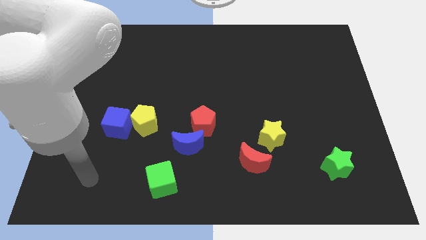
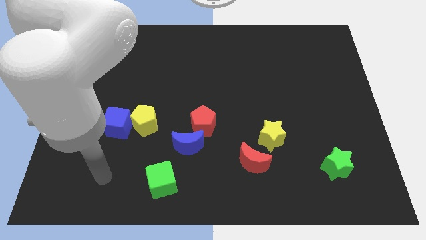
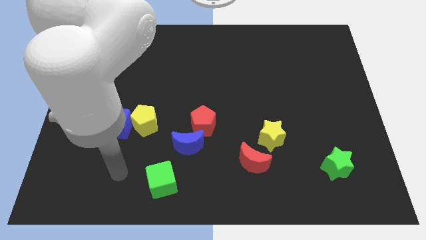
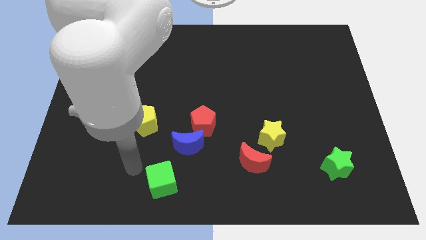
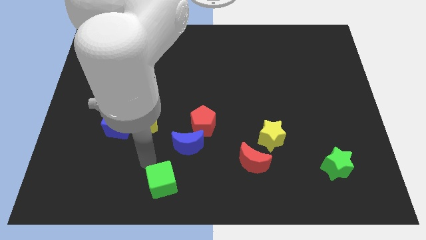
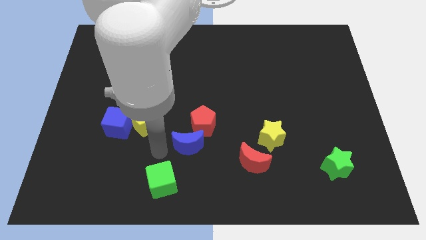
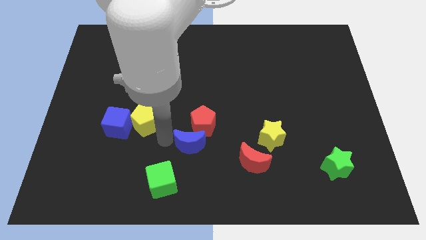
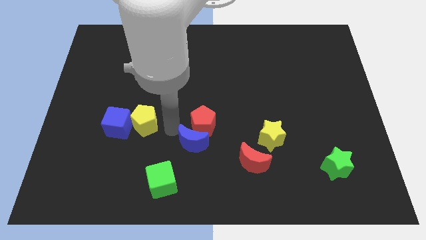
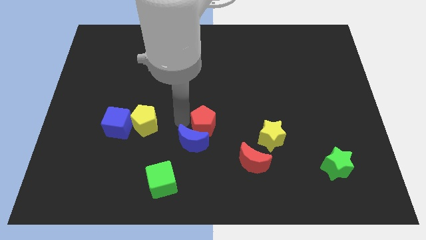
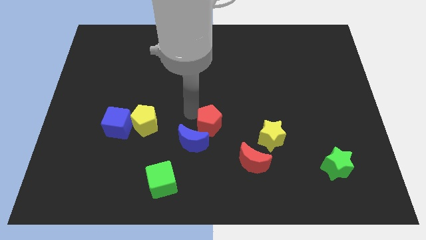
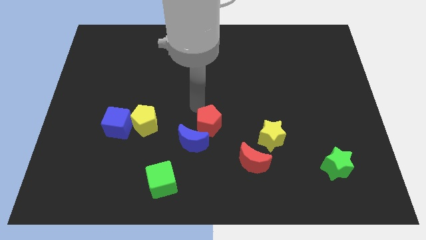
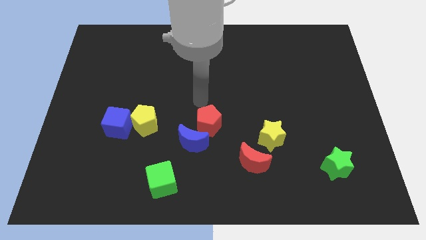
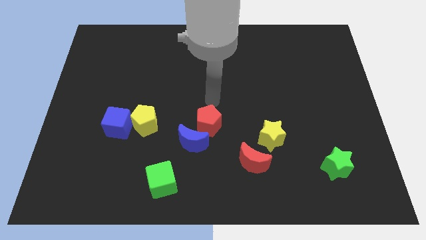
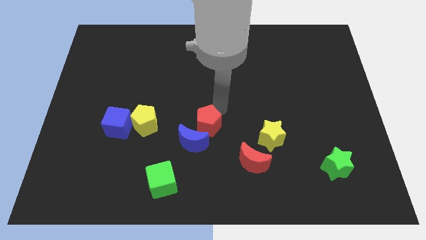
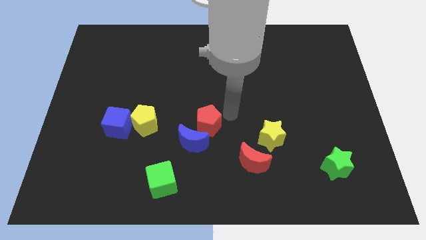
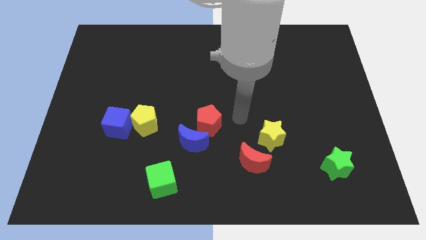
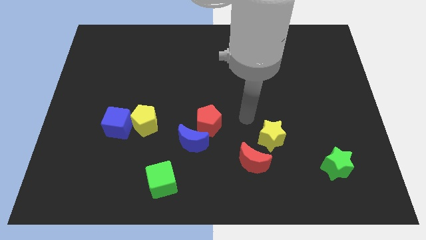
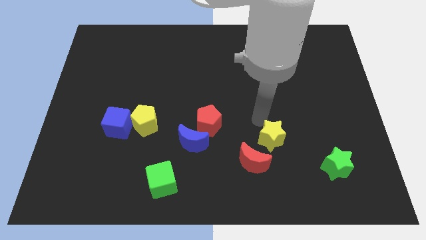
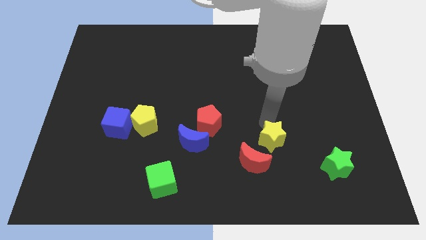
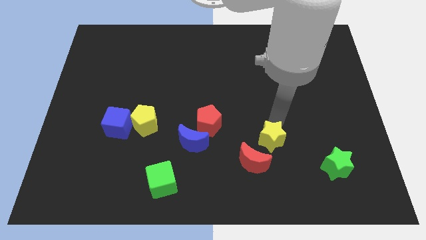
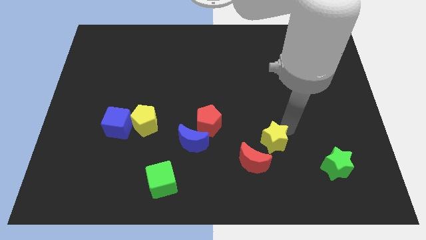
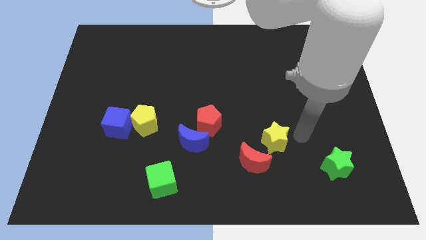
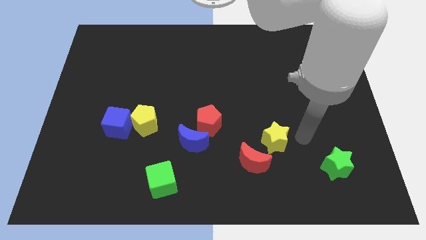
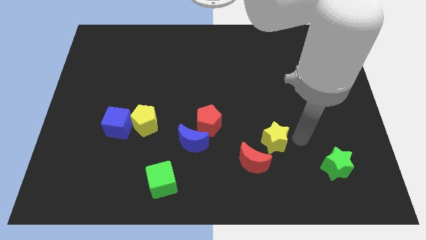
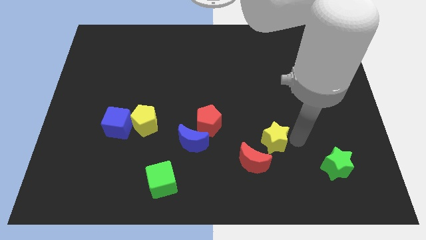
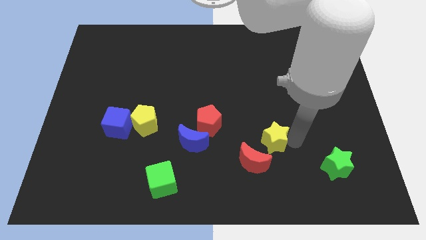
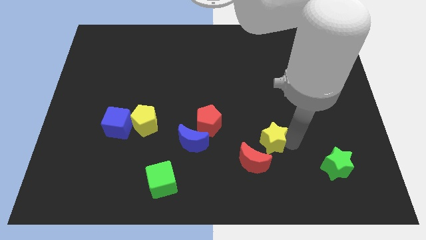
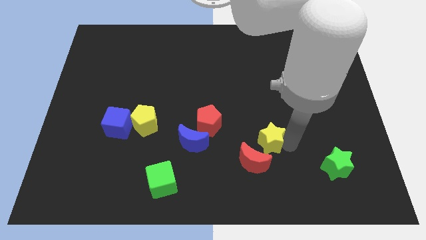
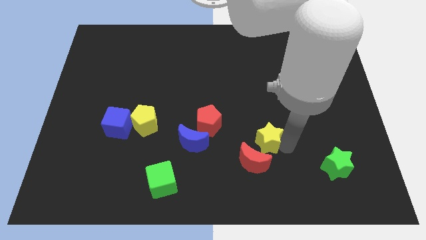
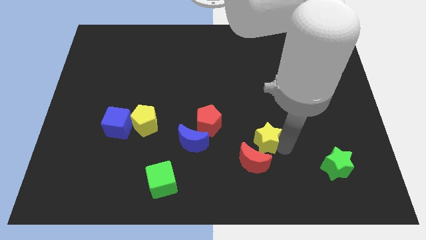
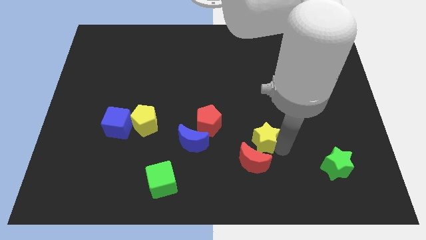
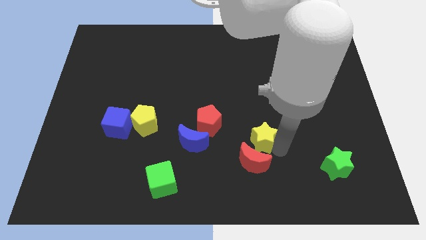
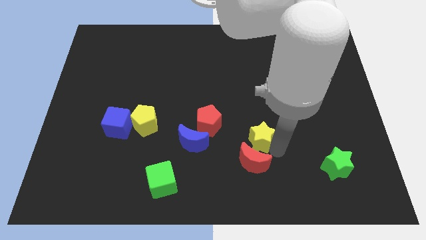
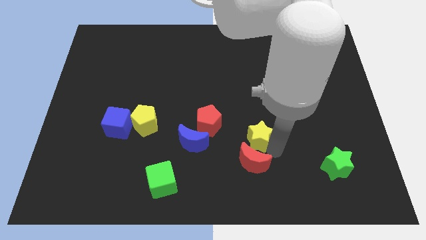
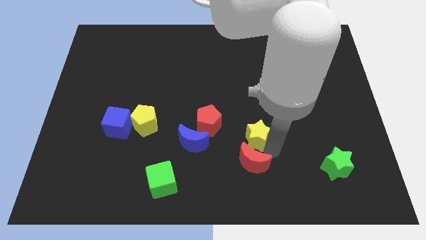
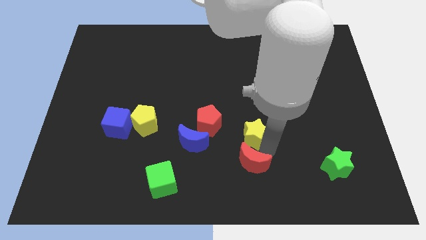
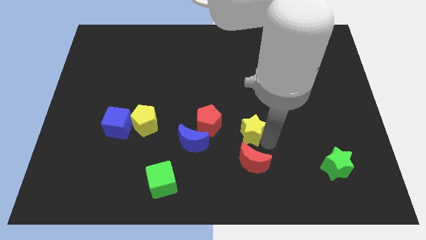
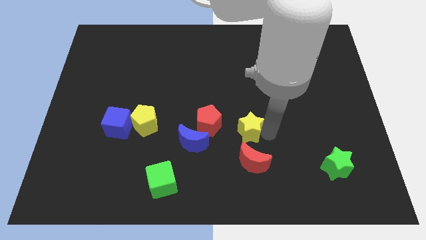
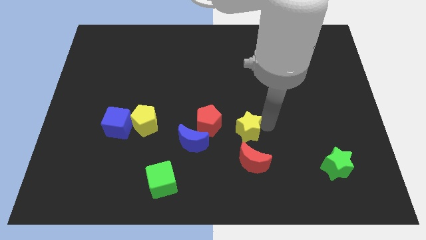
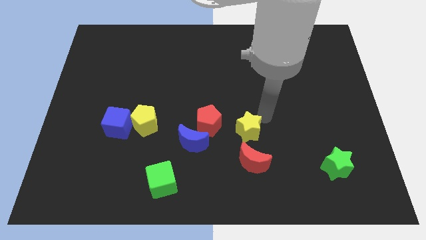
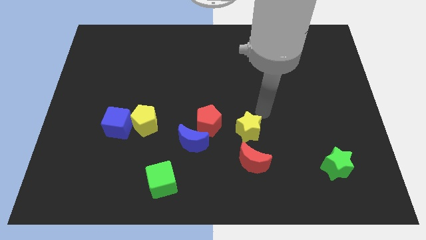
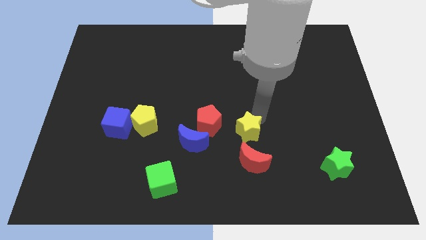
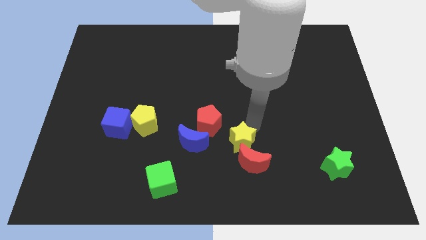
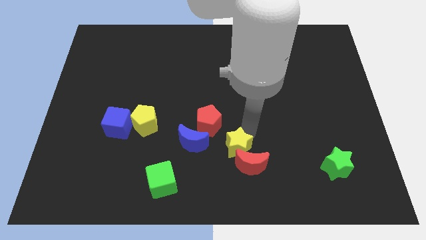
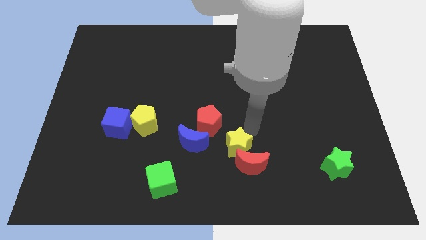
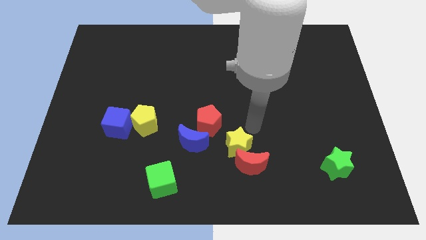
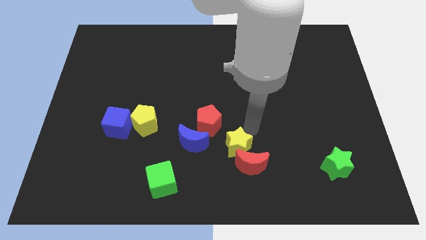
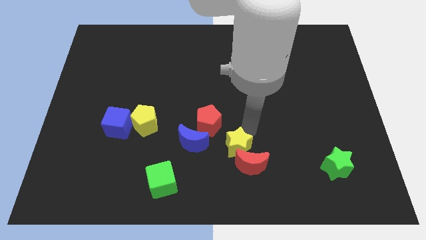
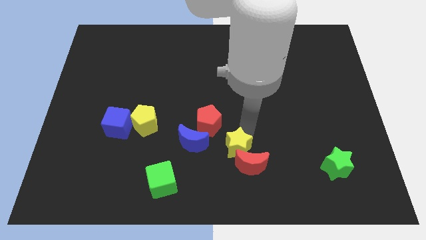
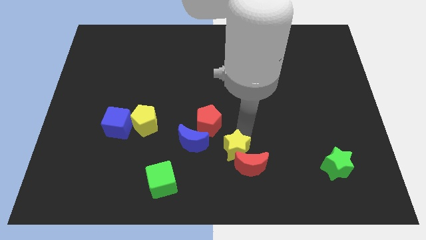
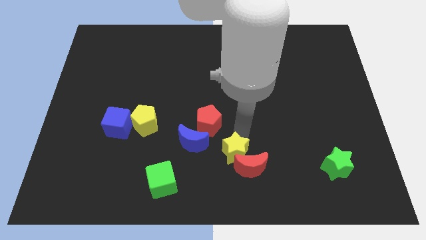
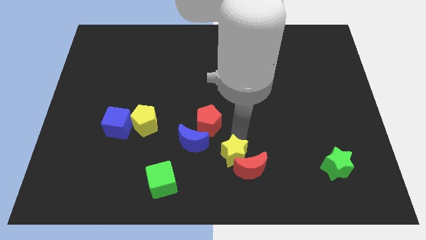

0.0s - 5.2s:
push the yellow star to the bottom

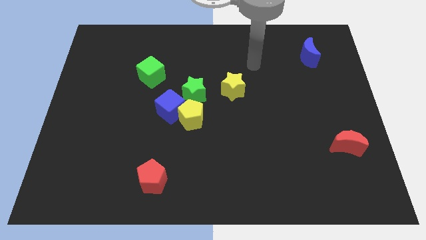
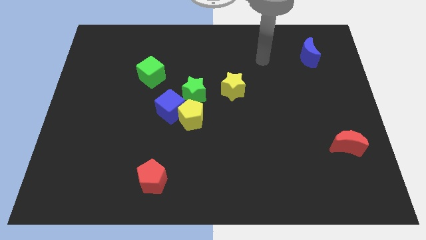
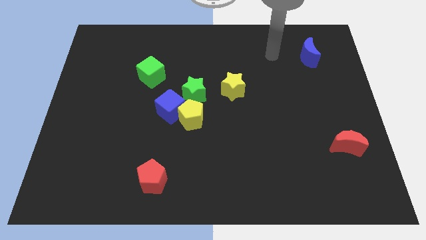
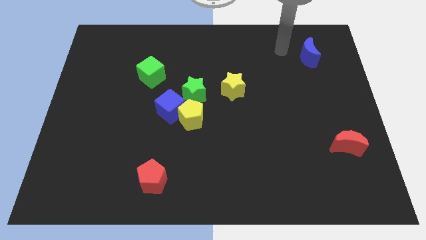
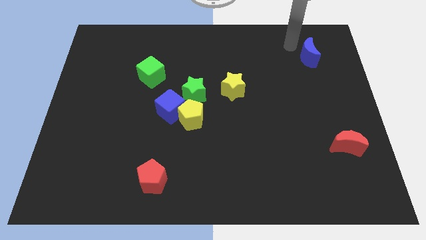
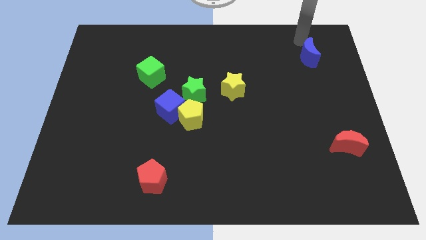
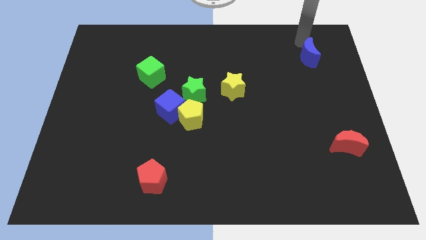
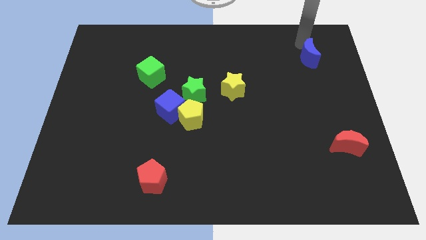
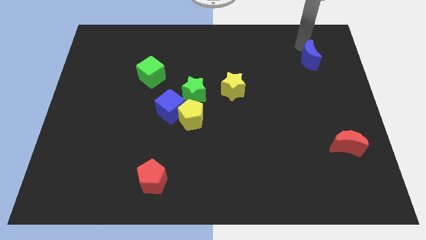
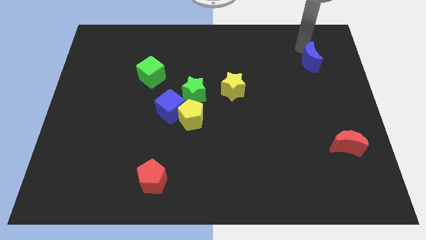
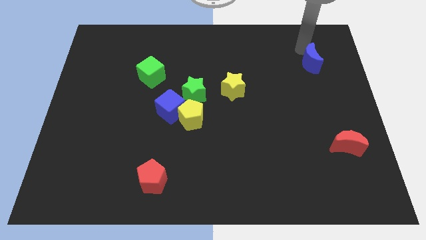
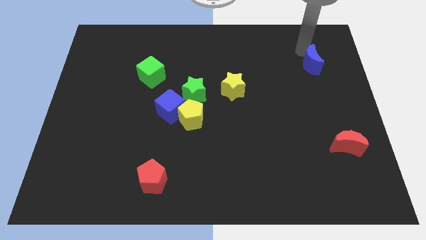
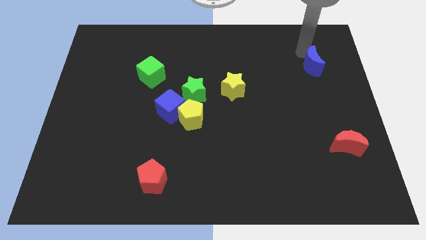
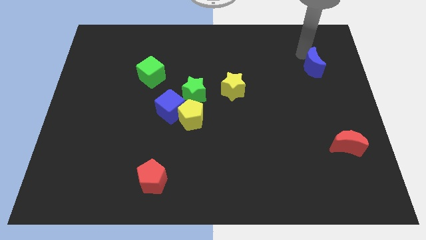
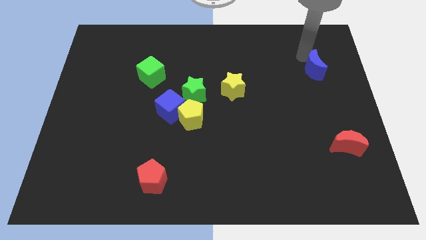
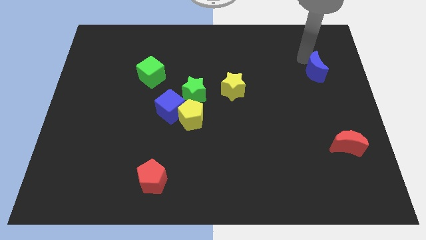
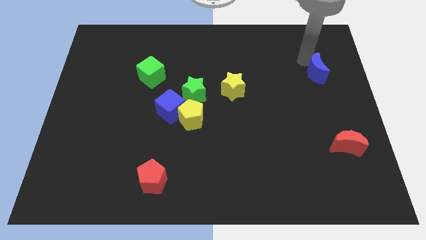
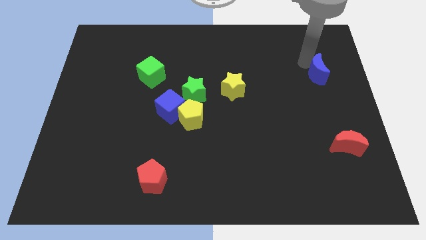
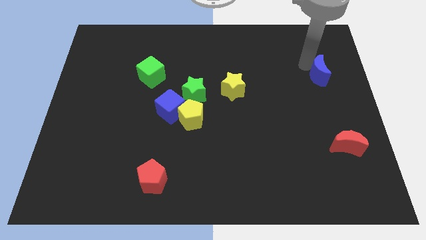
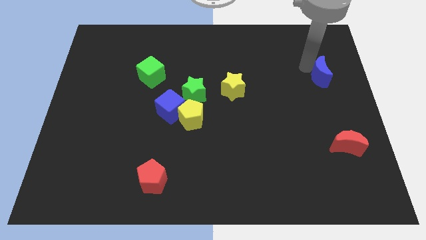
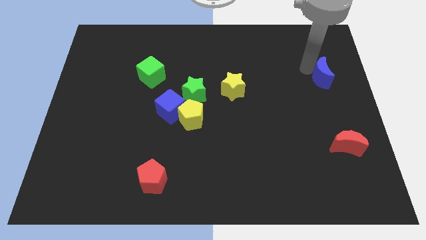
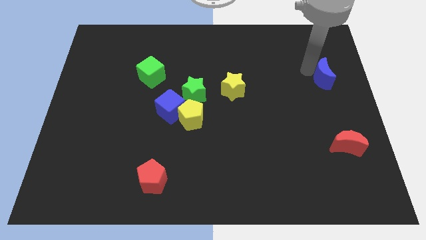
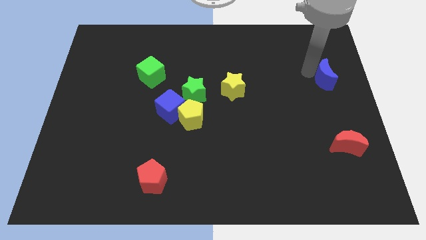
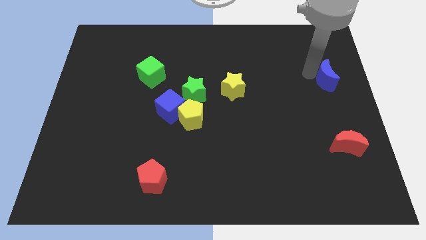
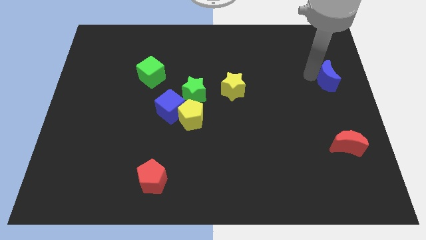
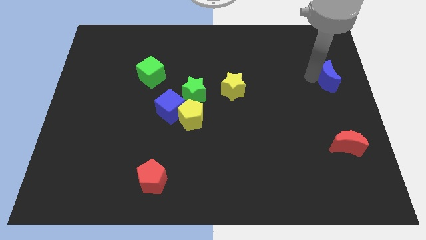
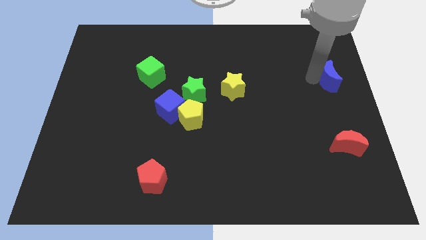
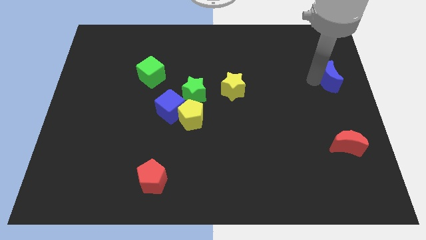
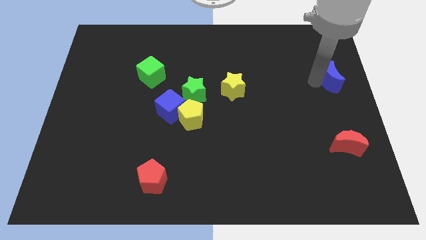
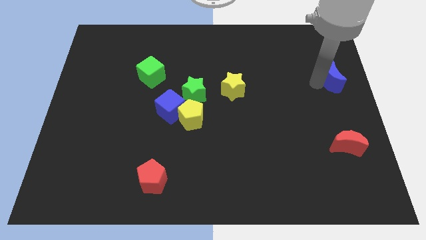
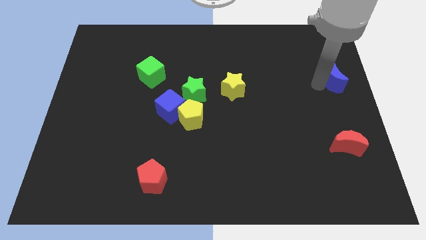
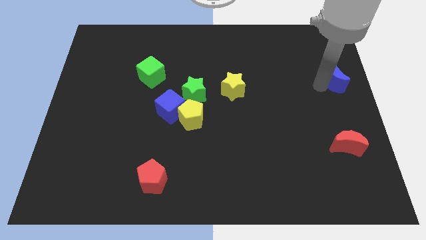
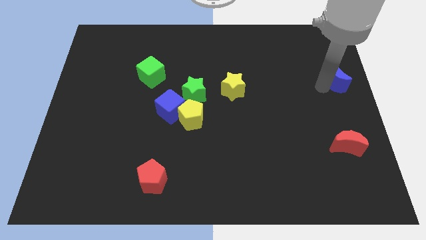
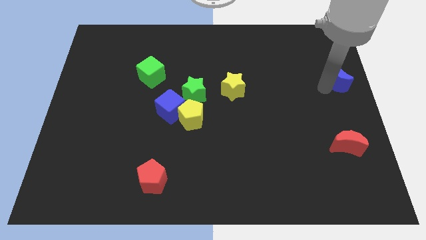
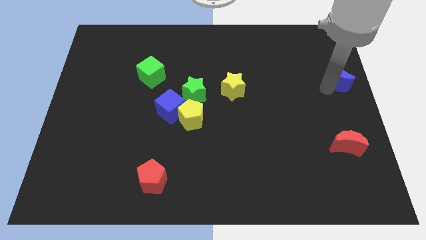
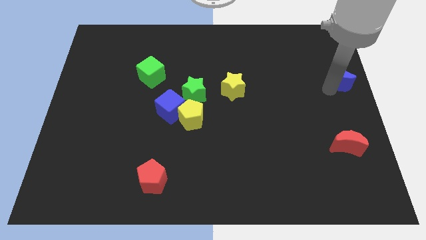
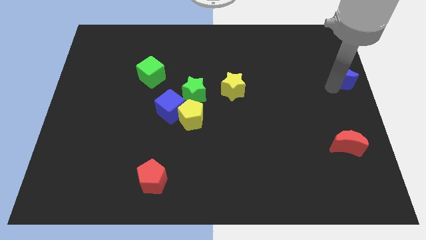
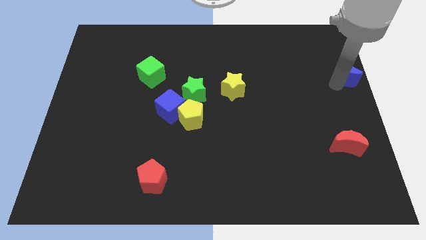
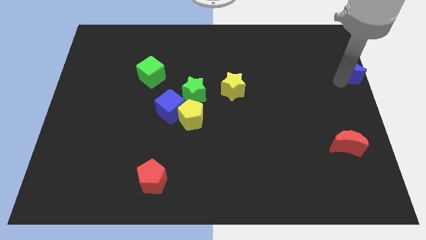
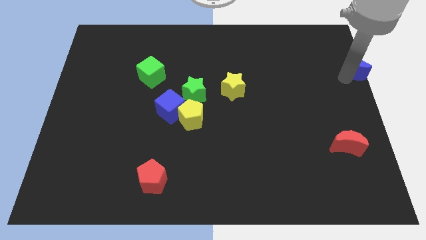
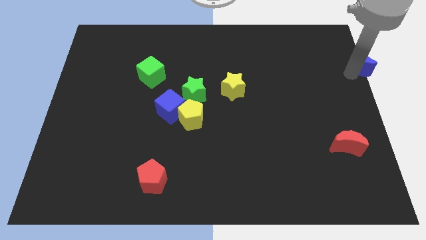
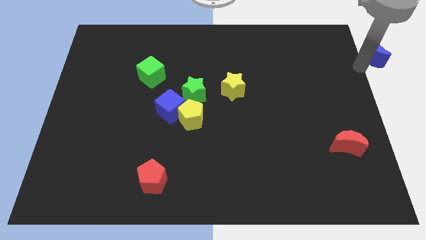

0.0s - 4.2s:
put the blue moon to the upper right corner
